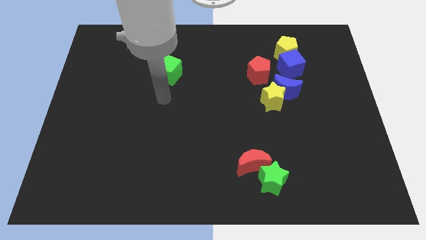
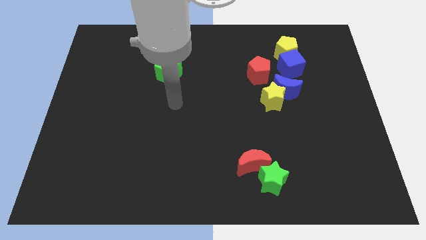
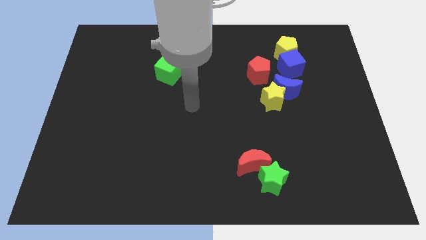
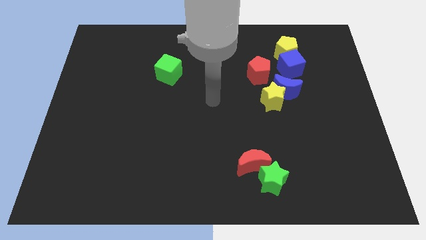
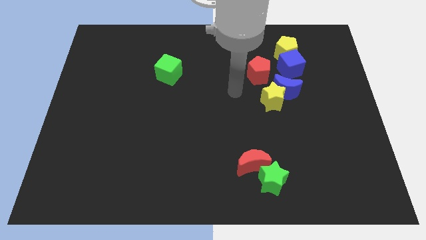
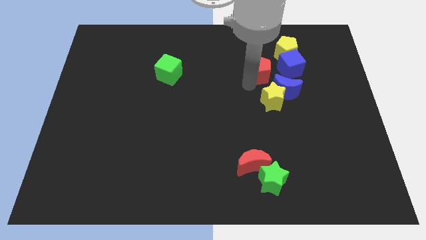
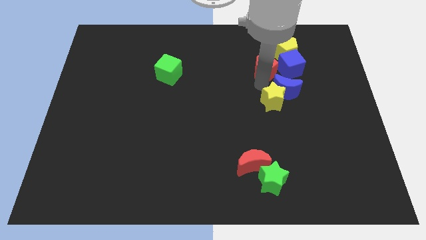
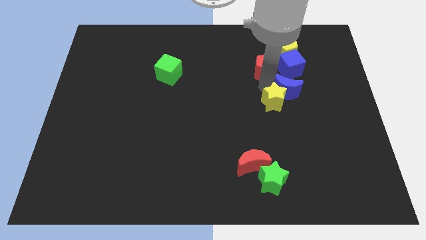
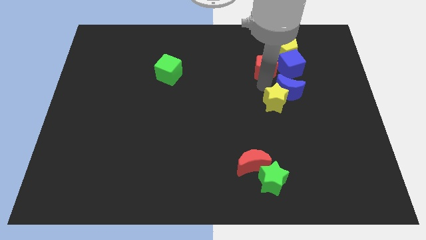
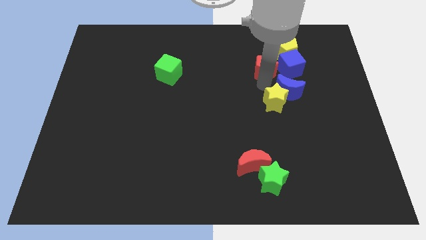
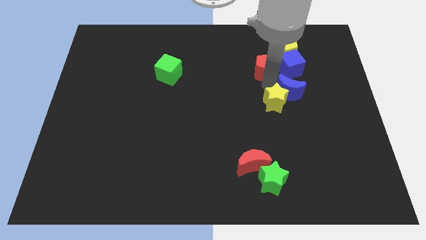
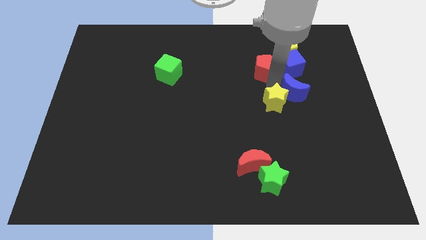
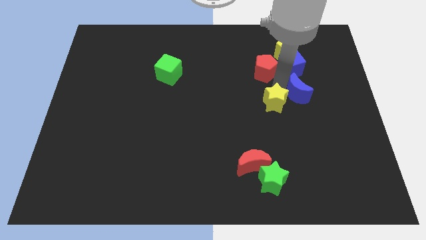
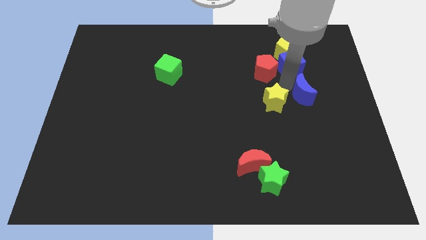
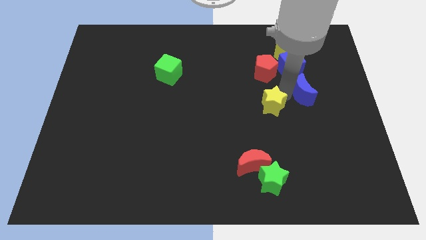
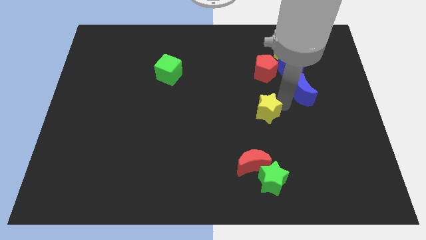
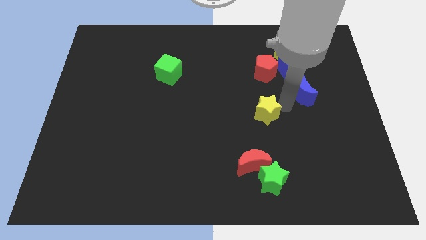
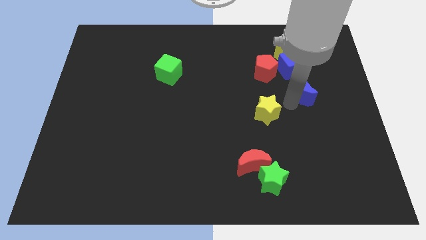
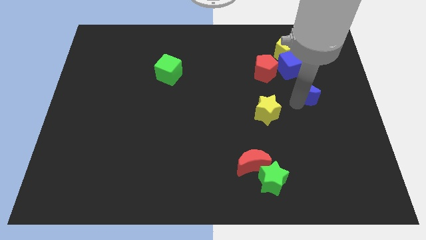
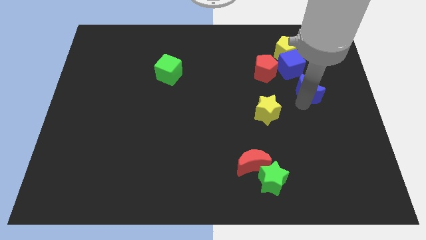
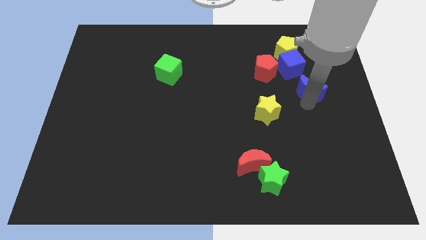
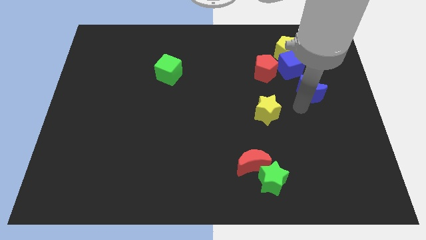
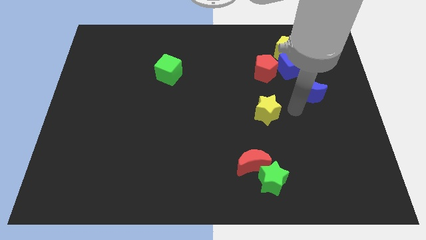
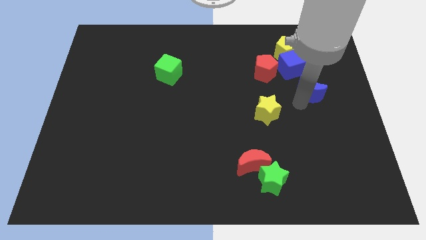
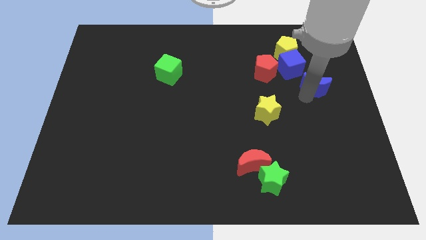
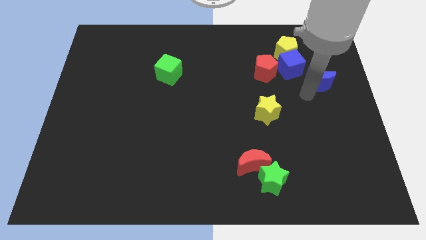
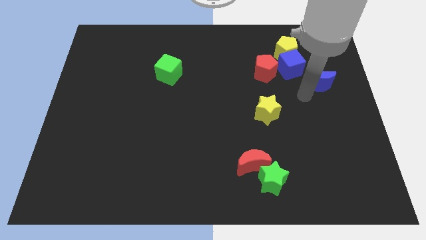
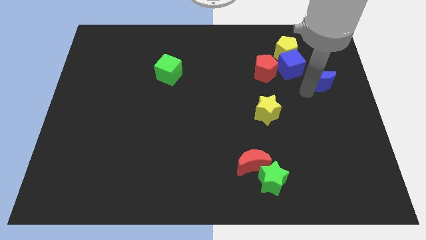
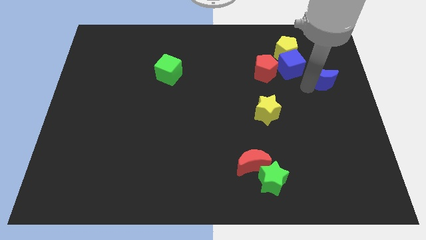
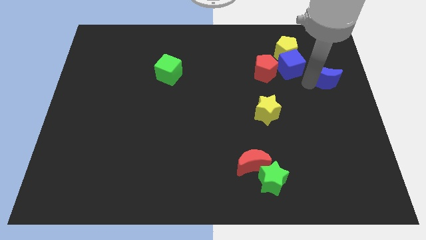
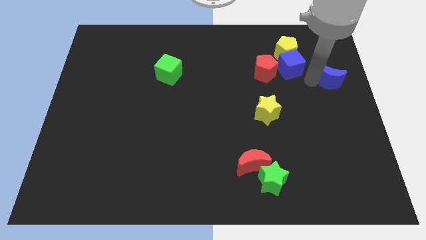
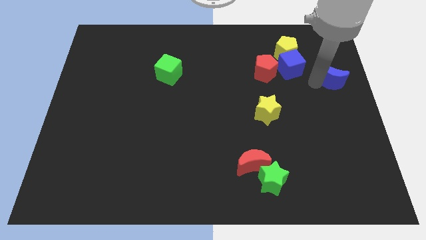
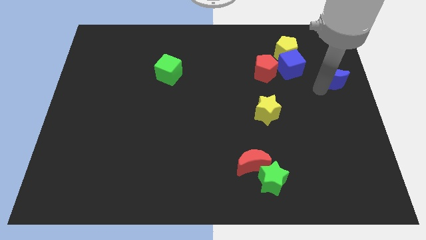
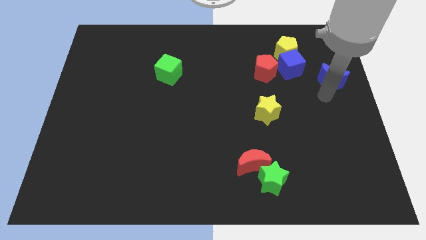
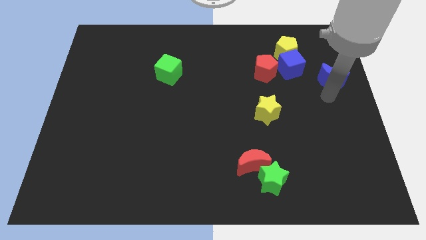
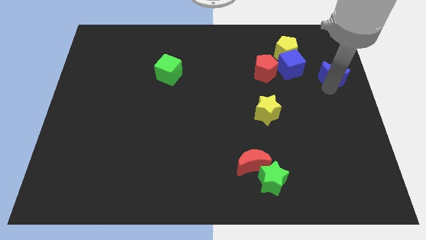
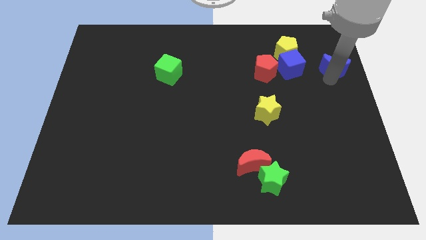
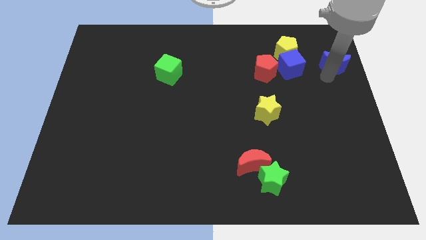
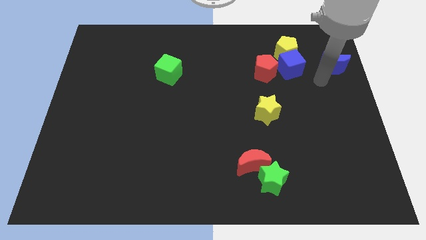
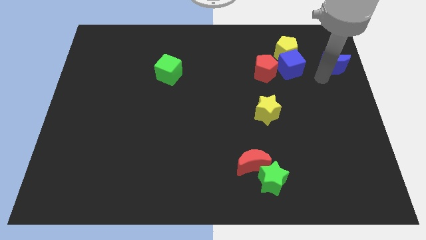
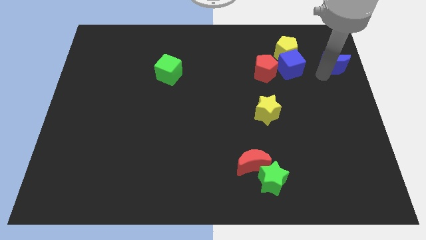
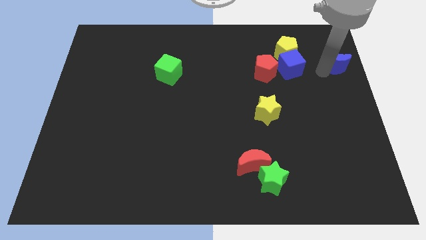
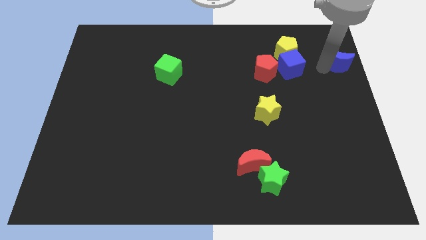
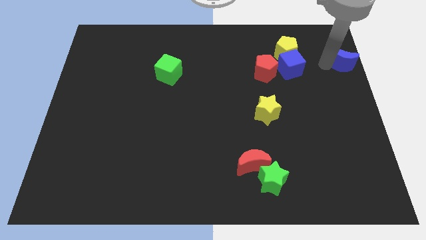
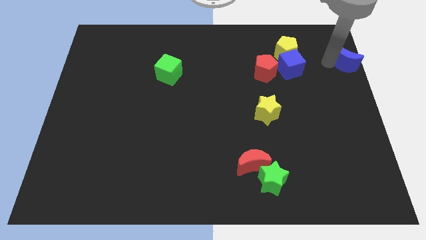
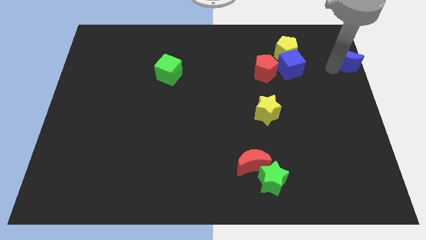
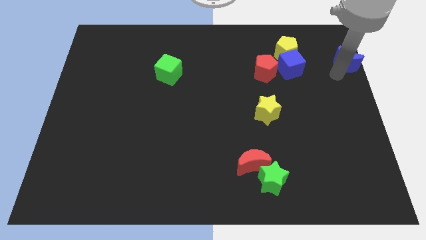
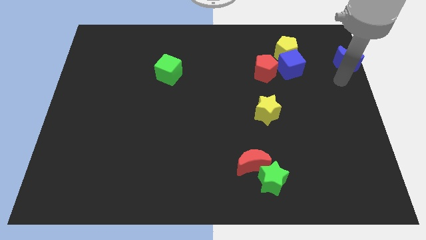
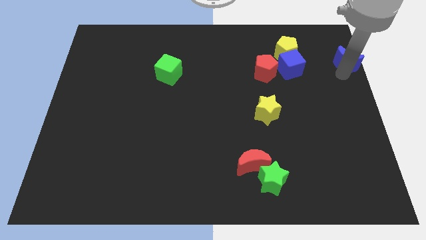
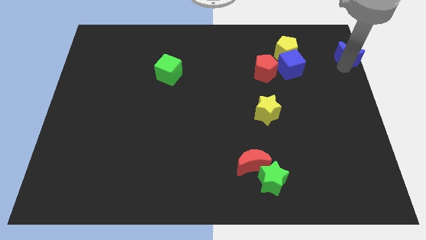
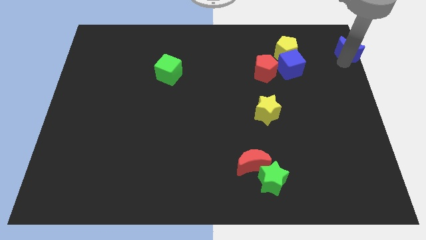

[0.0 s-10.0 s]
move the blue moon to the top right of the board
